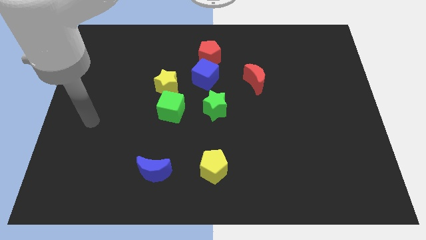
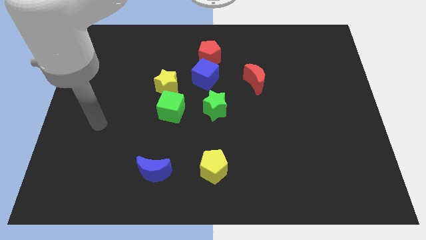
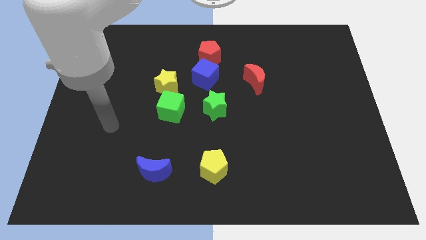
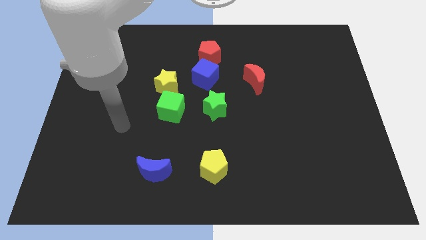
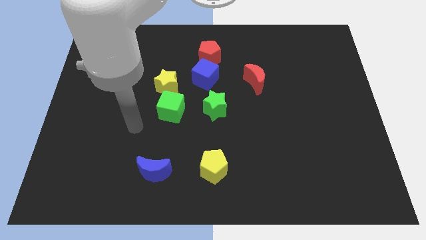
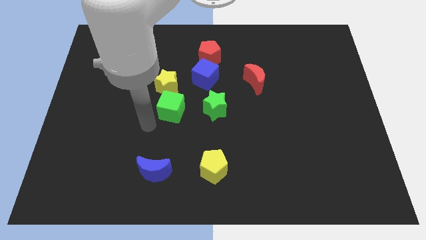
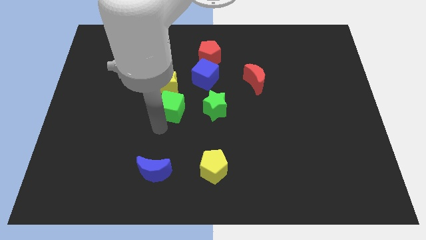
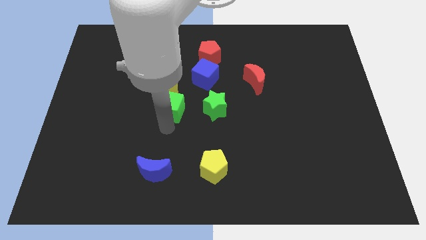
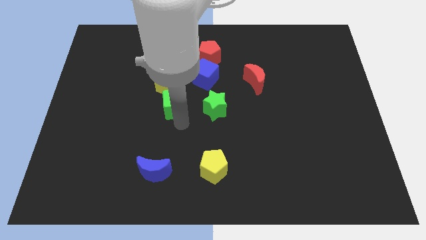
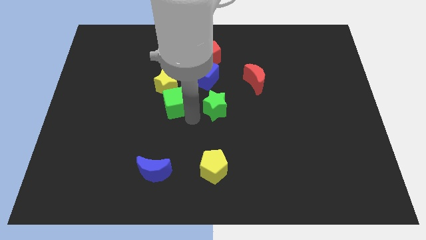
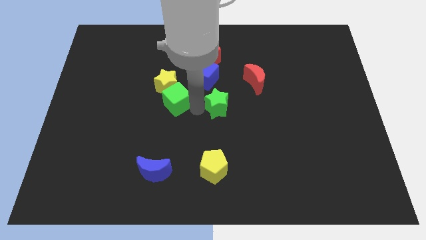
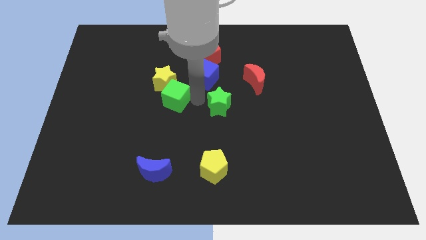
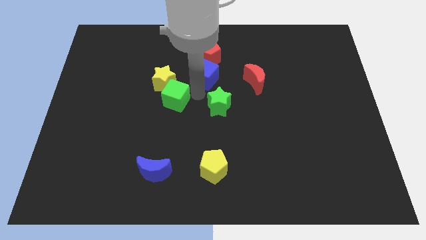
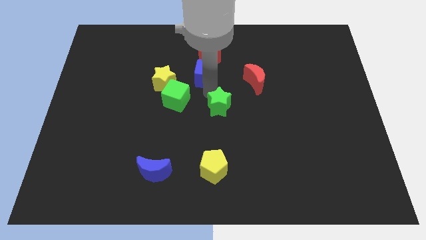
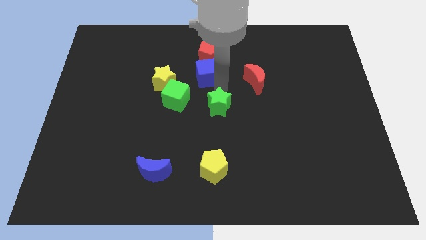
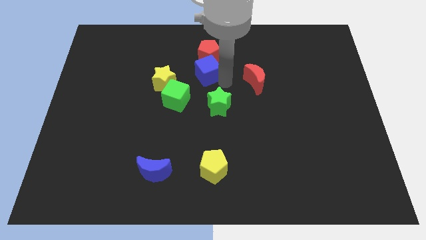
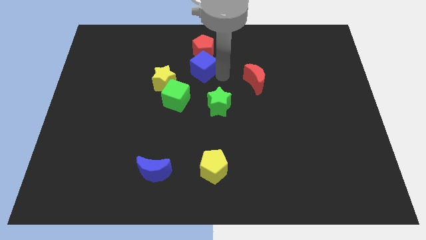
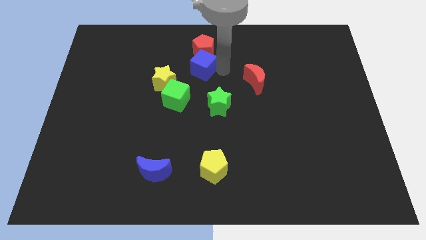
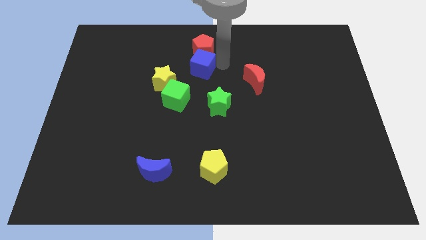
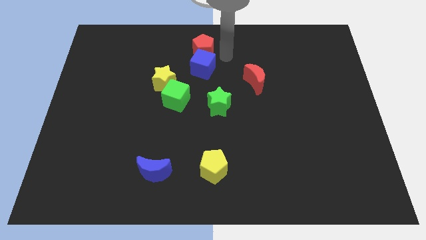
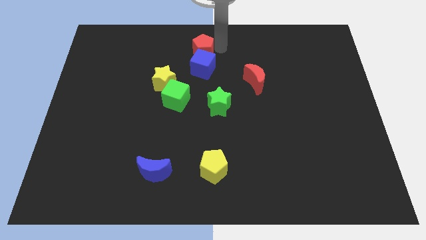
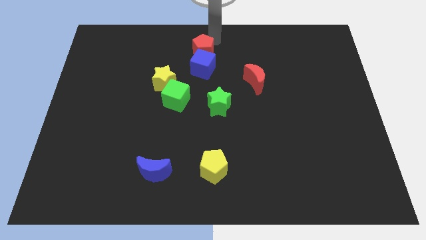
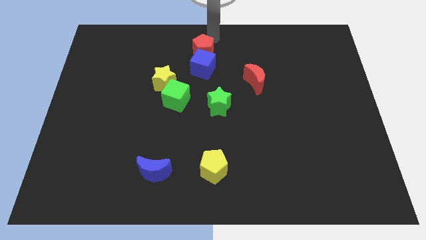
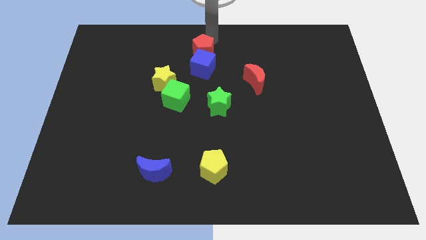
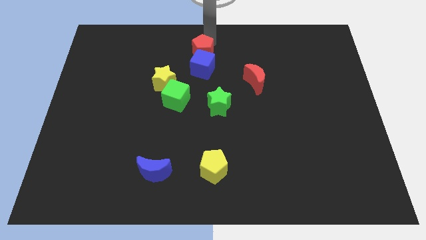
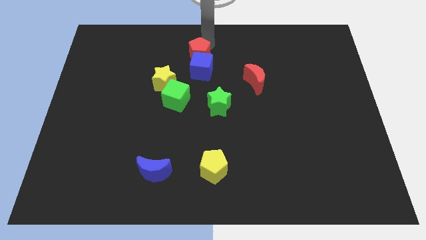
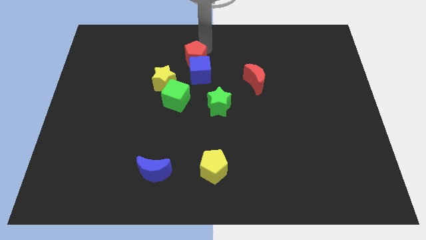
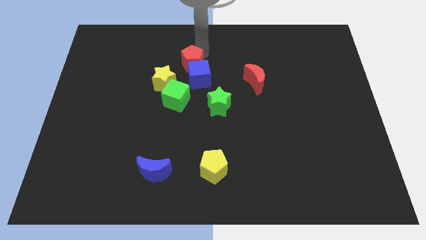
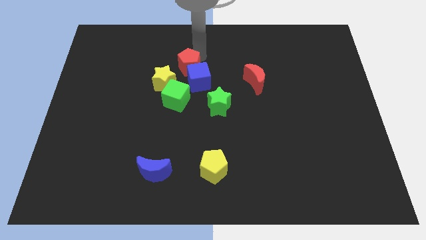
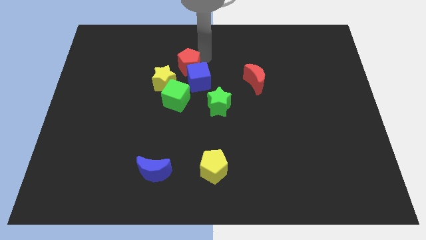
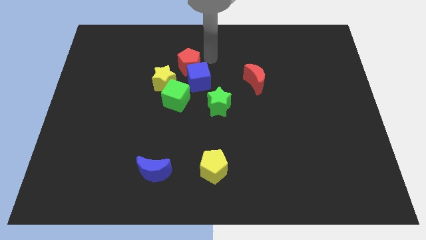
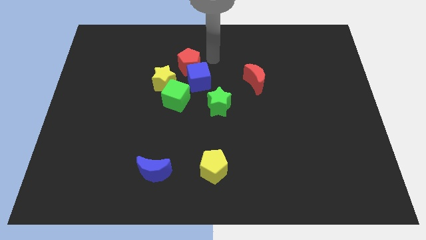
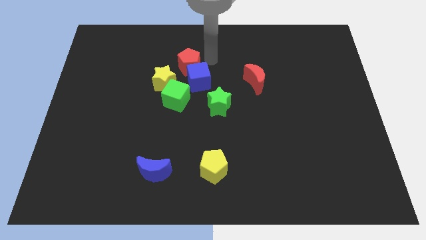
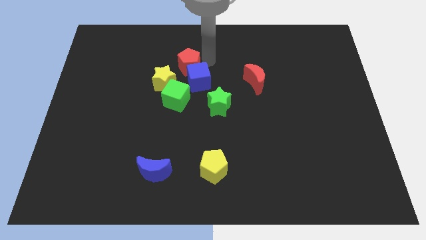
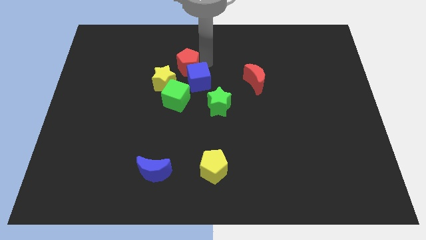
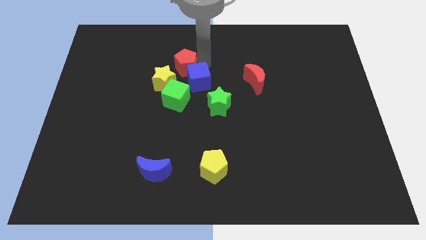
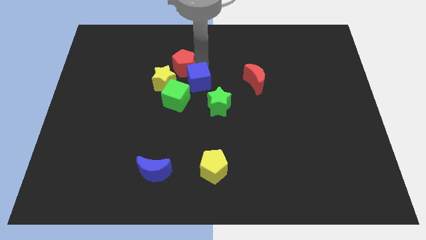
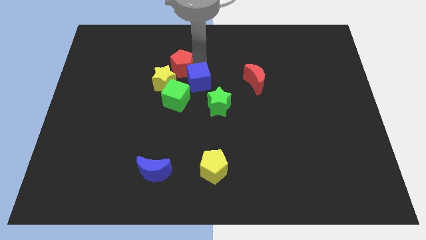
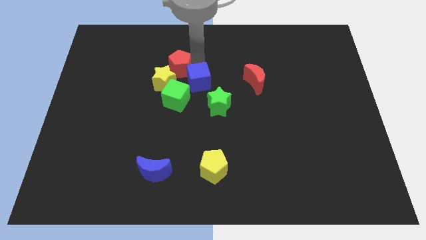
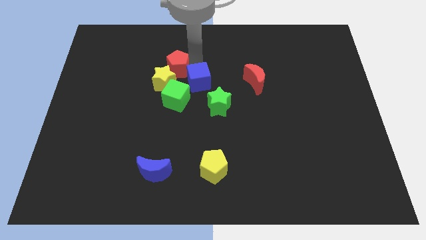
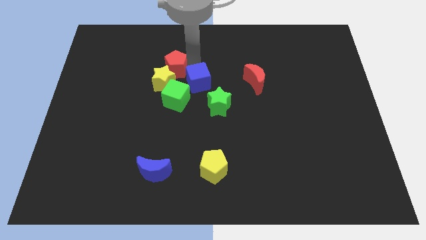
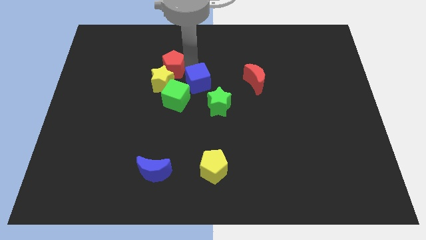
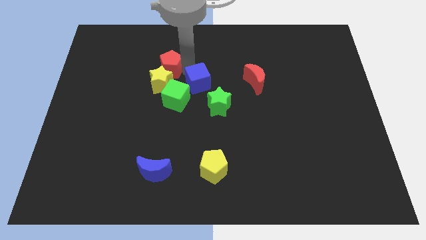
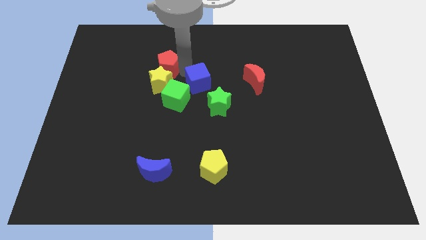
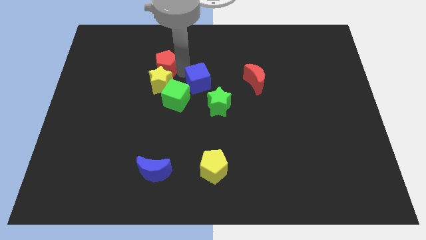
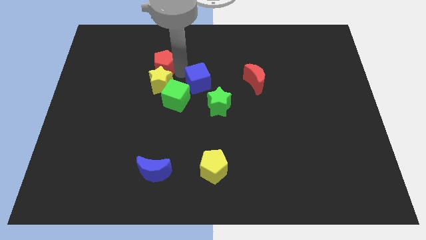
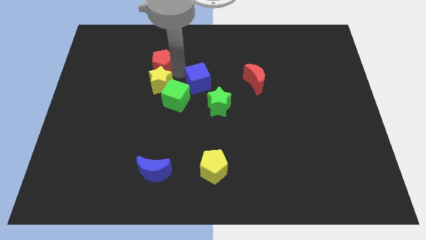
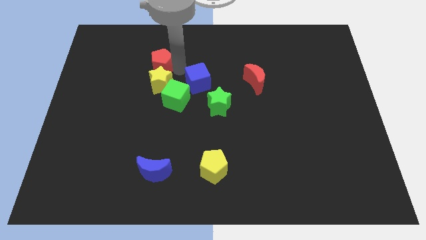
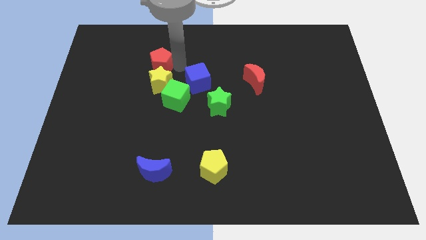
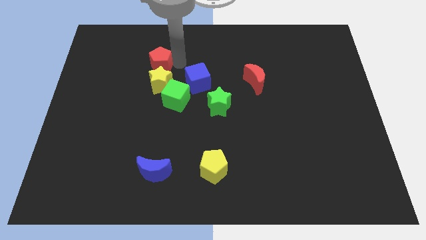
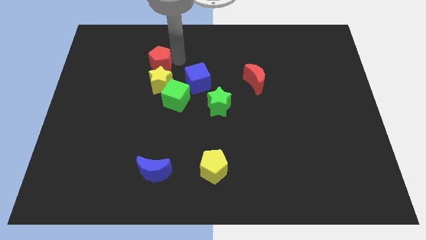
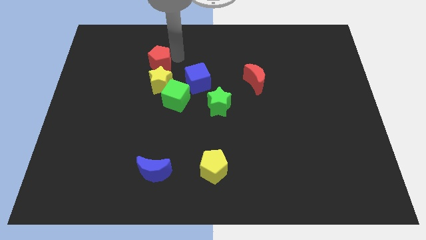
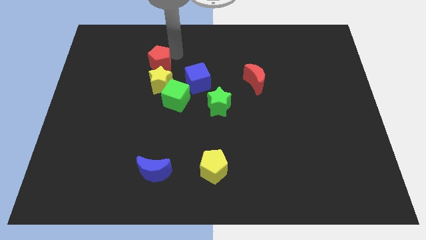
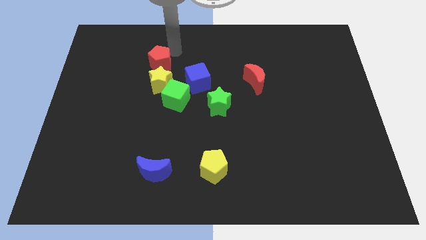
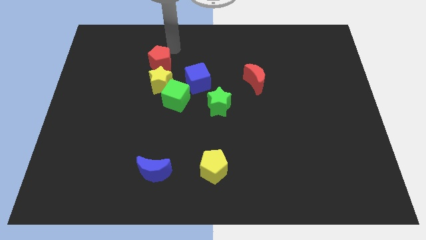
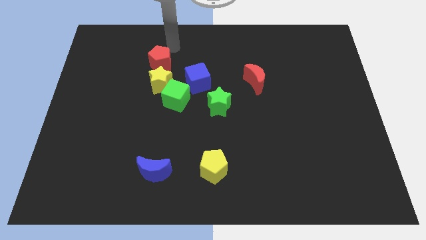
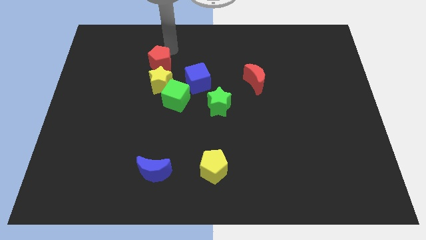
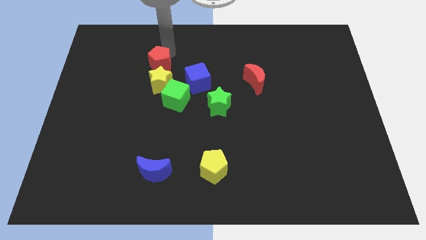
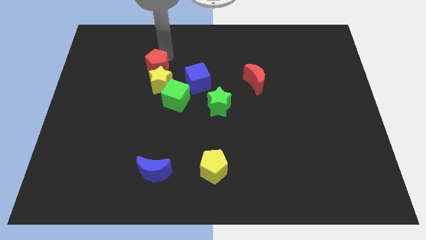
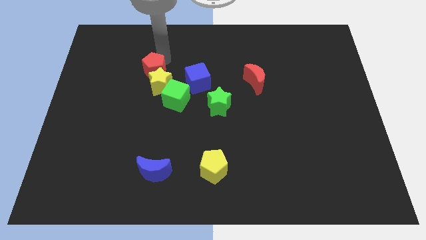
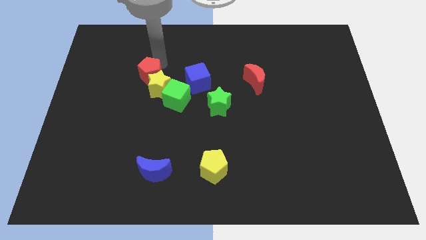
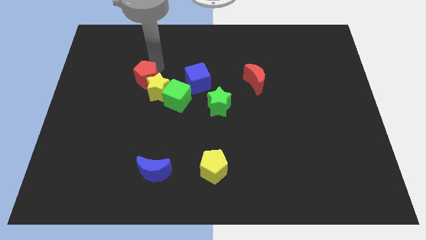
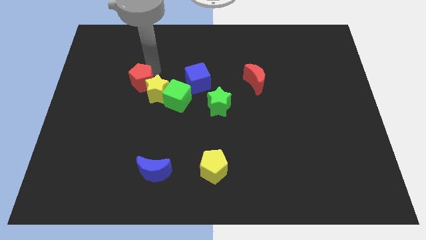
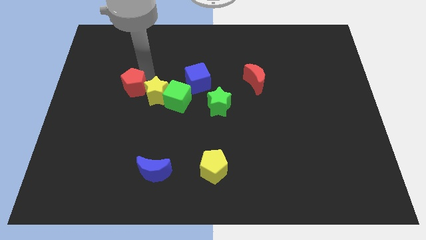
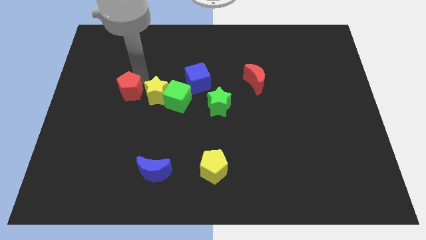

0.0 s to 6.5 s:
move the red pentagon down and then to the left

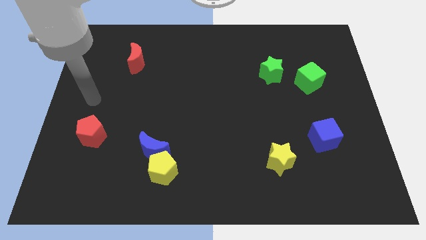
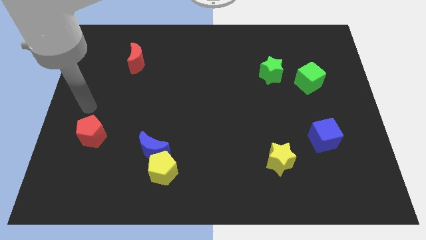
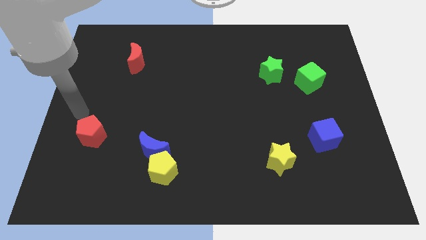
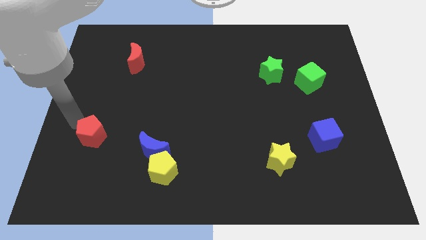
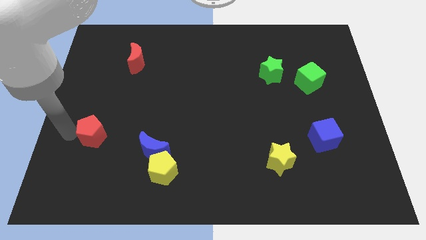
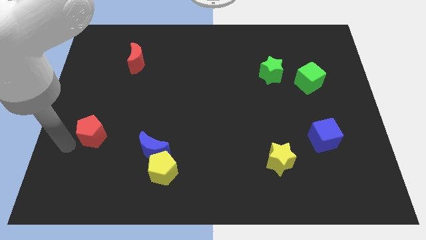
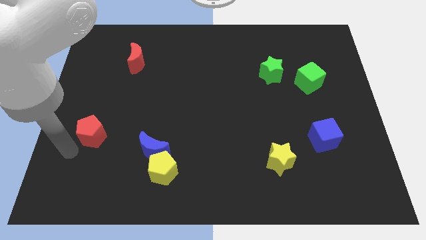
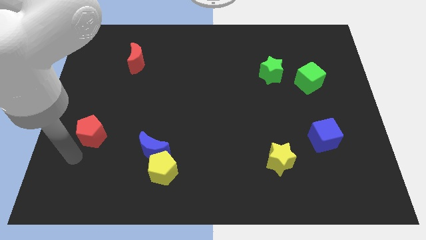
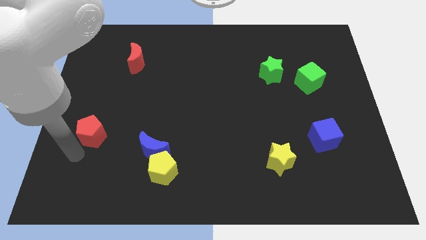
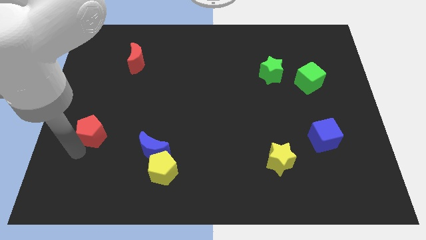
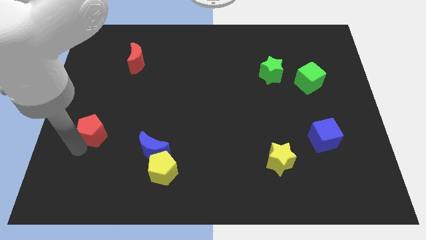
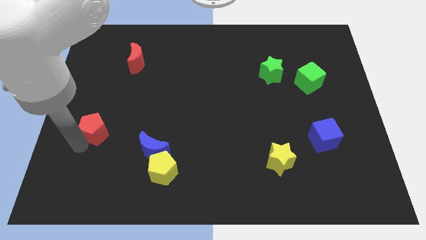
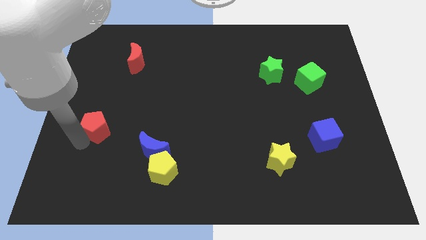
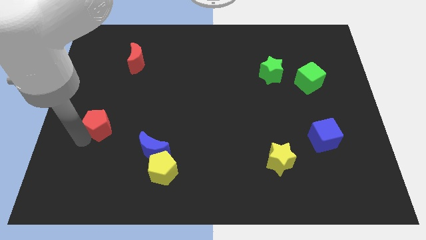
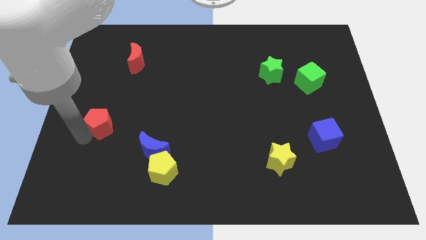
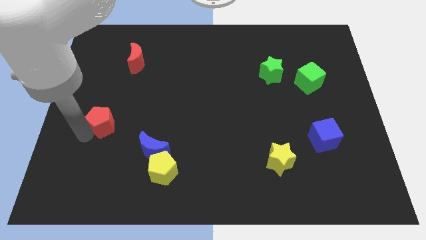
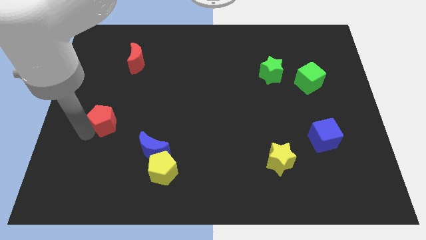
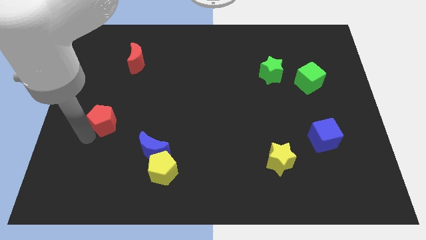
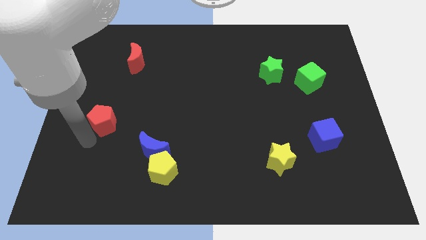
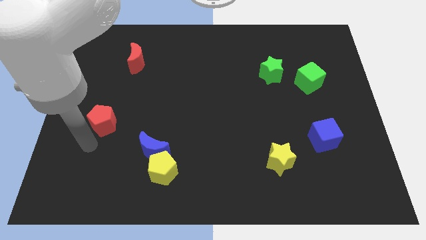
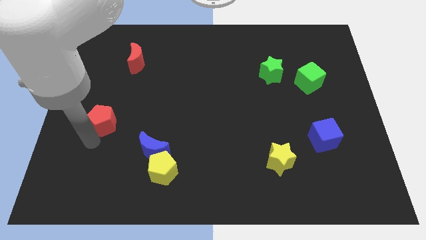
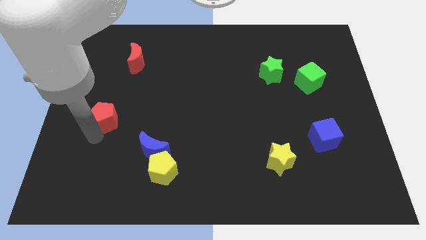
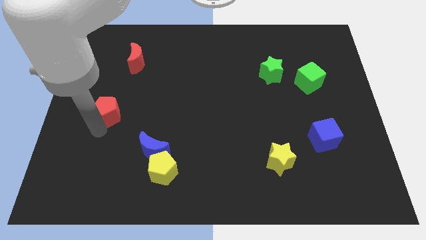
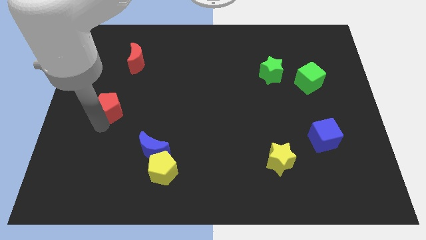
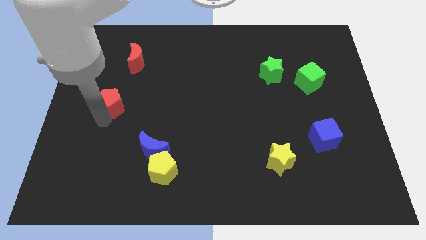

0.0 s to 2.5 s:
move the red pentagon a little bit up and then right
